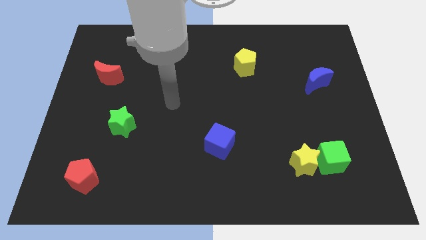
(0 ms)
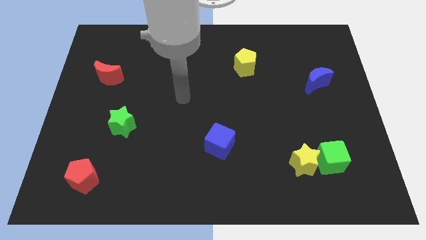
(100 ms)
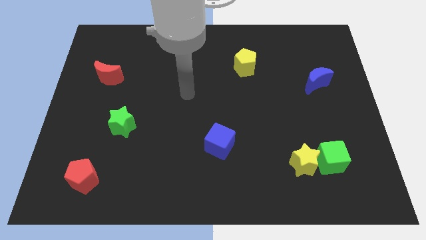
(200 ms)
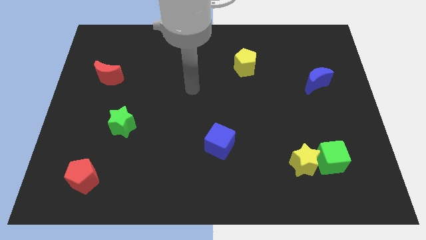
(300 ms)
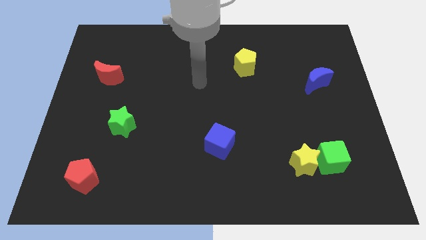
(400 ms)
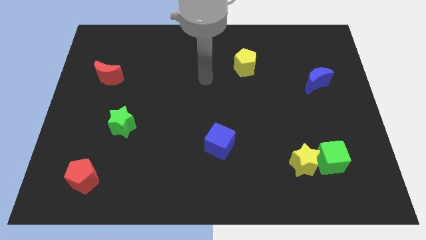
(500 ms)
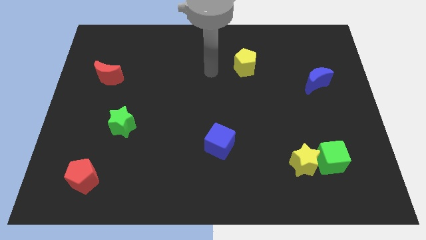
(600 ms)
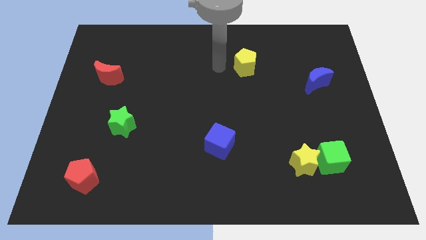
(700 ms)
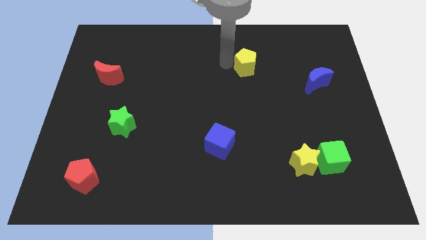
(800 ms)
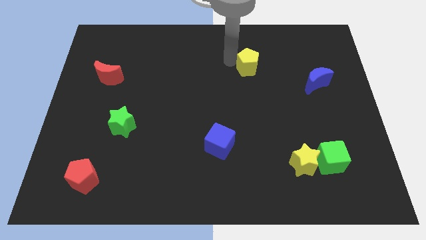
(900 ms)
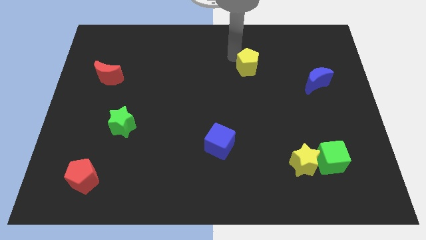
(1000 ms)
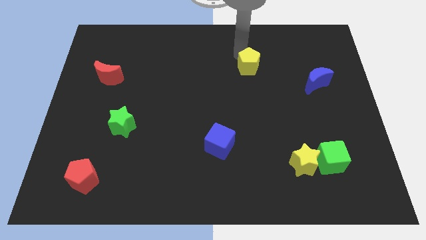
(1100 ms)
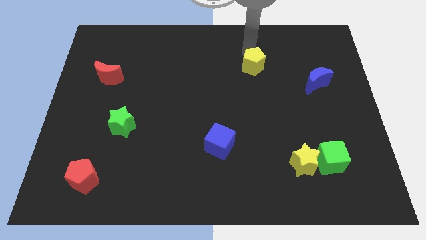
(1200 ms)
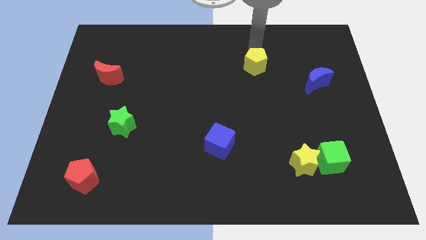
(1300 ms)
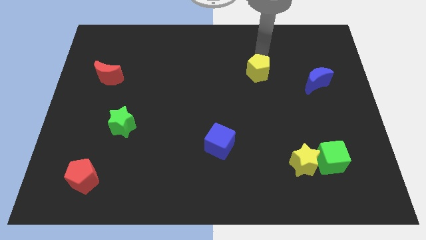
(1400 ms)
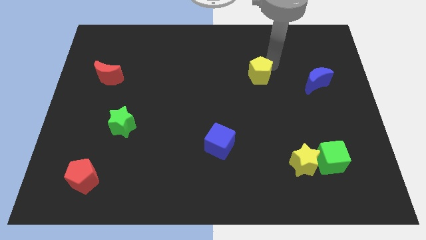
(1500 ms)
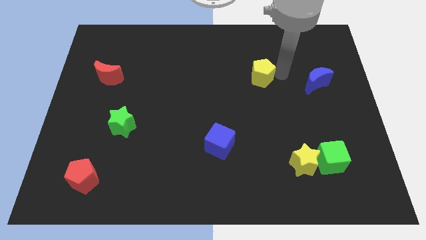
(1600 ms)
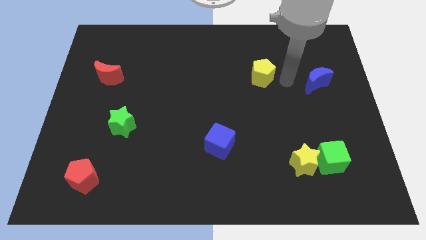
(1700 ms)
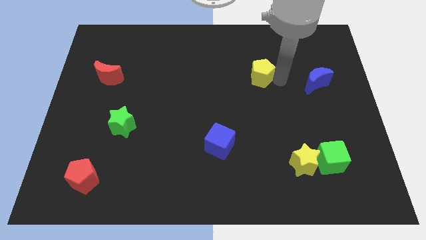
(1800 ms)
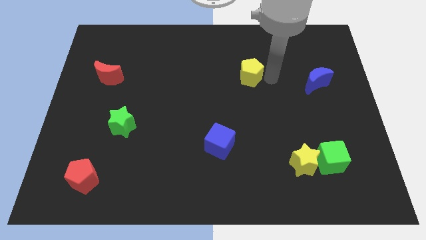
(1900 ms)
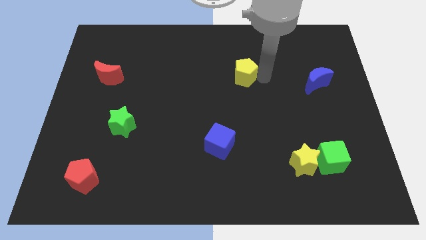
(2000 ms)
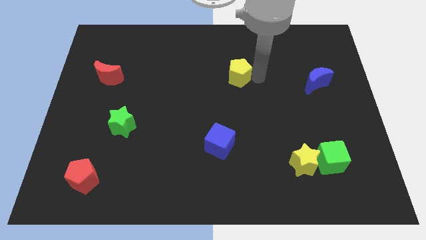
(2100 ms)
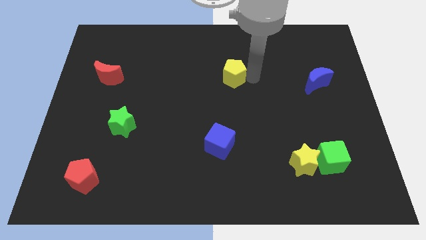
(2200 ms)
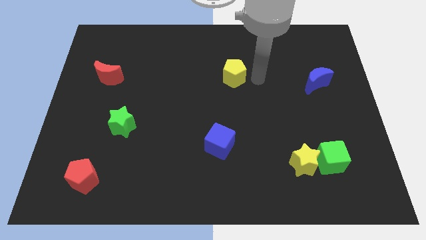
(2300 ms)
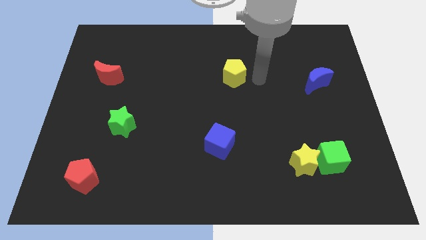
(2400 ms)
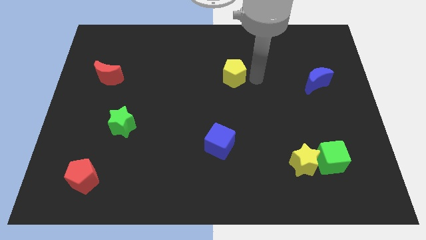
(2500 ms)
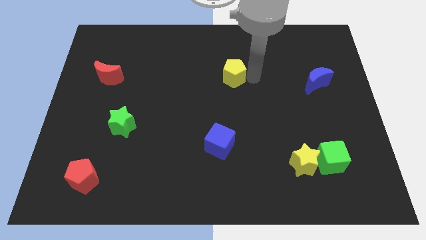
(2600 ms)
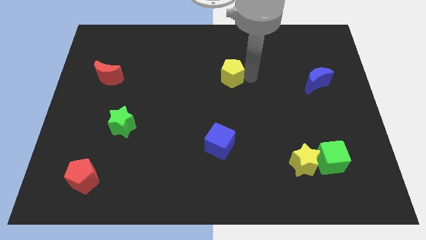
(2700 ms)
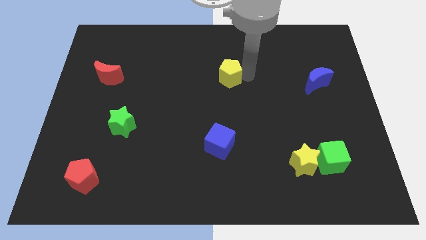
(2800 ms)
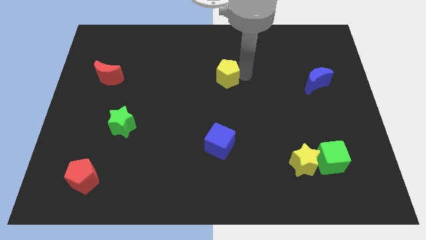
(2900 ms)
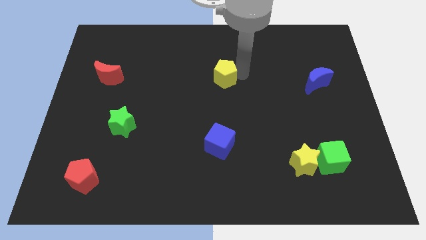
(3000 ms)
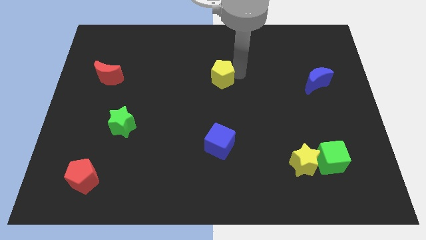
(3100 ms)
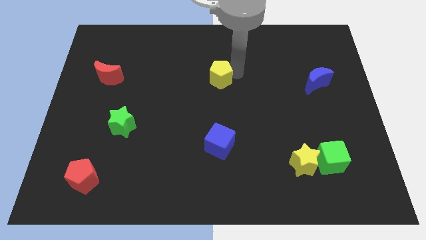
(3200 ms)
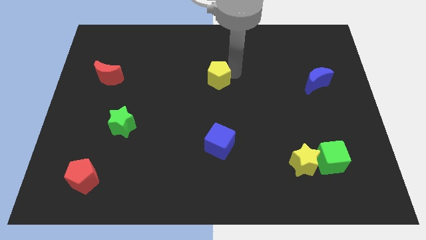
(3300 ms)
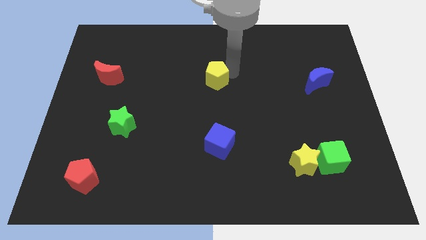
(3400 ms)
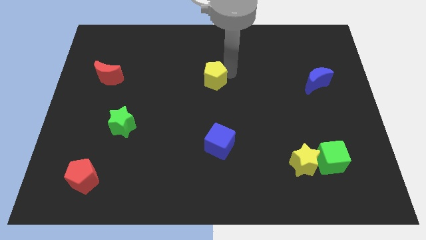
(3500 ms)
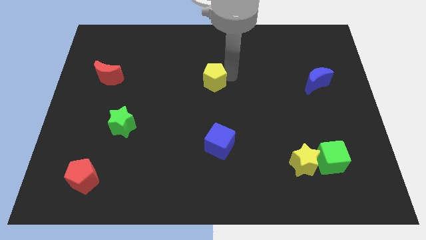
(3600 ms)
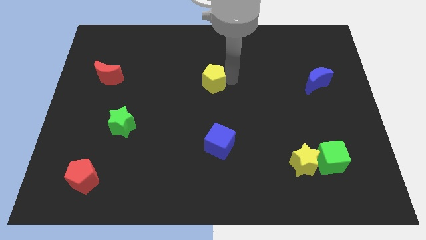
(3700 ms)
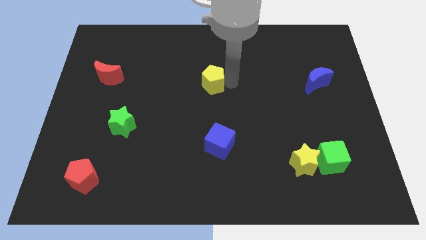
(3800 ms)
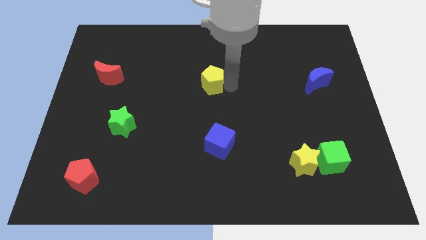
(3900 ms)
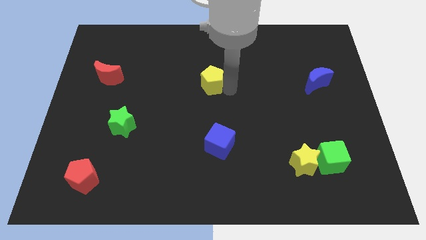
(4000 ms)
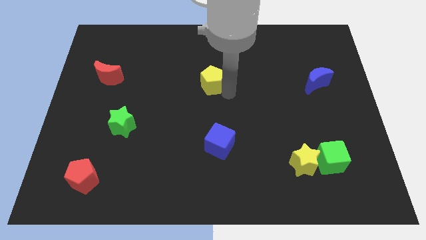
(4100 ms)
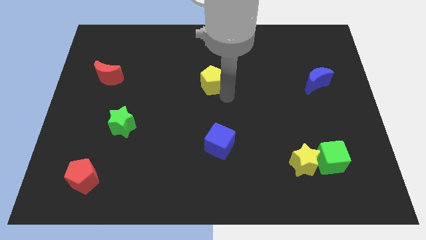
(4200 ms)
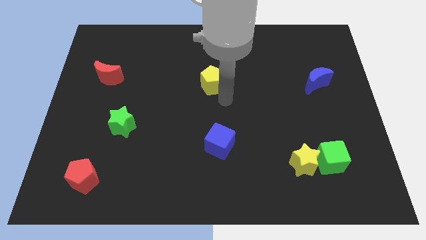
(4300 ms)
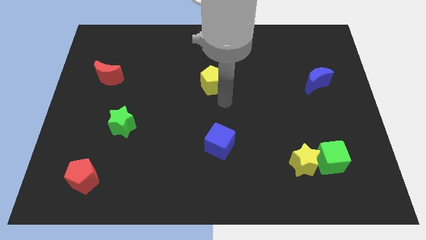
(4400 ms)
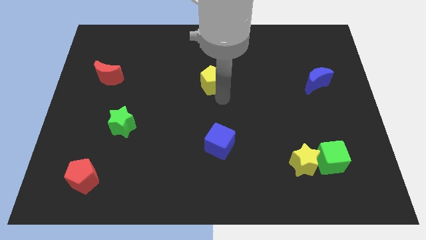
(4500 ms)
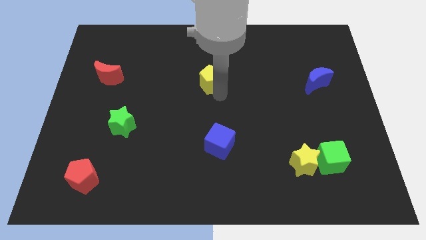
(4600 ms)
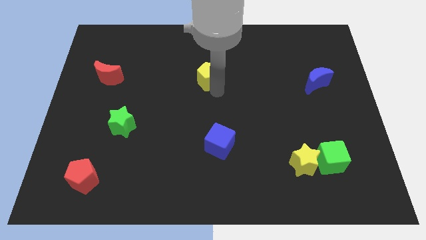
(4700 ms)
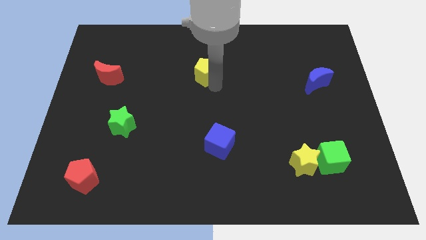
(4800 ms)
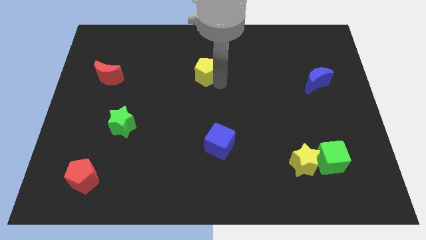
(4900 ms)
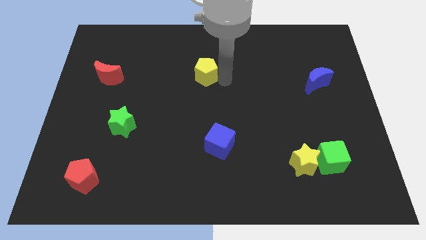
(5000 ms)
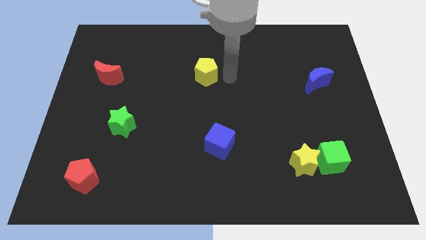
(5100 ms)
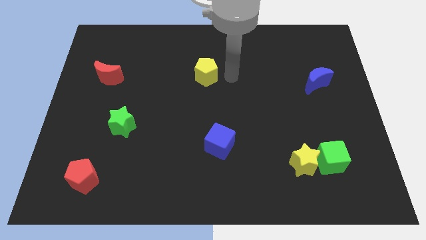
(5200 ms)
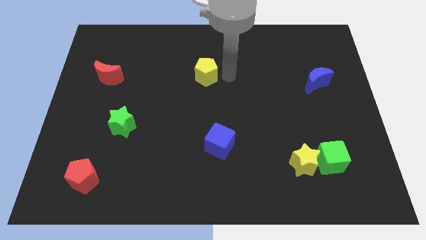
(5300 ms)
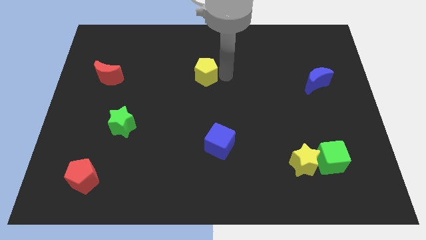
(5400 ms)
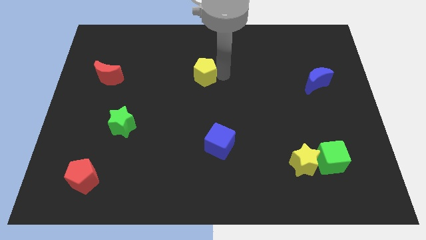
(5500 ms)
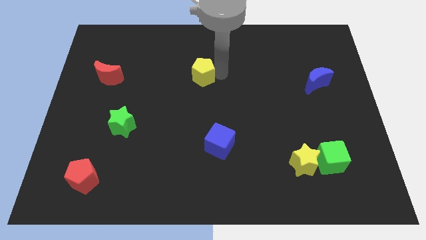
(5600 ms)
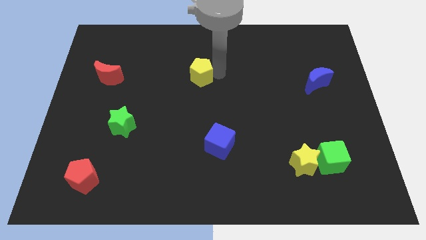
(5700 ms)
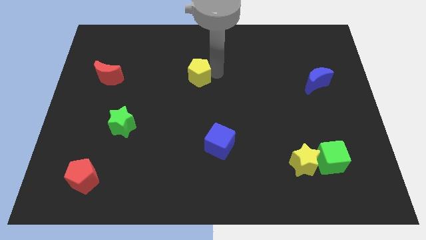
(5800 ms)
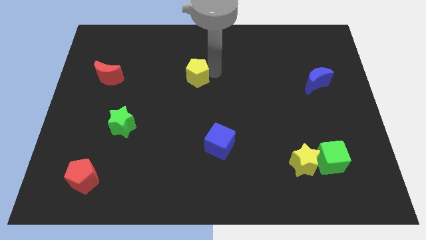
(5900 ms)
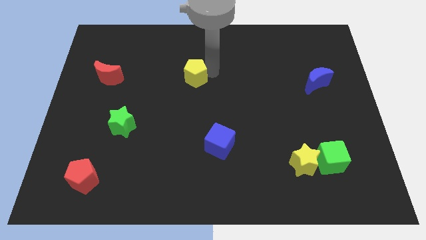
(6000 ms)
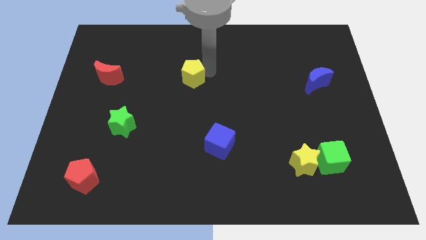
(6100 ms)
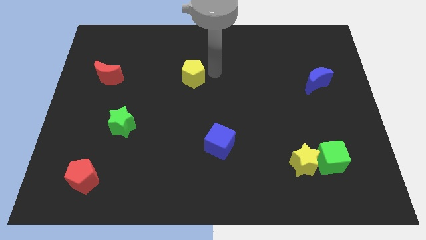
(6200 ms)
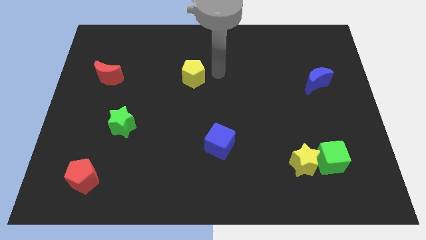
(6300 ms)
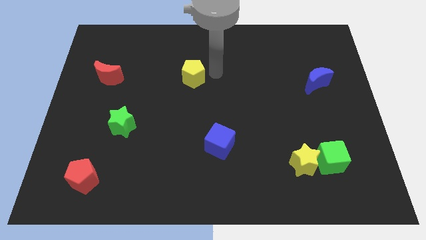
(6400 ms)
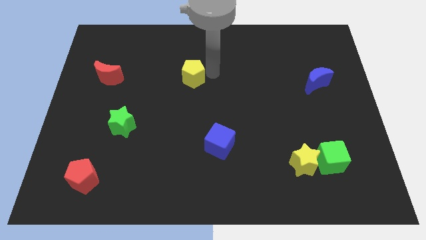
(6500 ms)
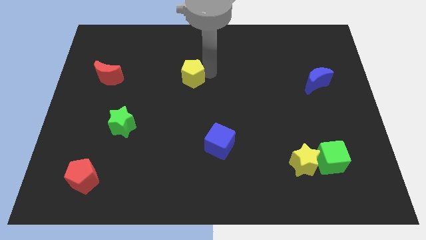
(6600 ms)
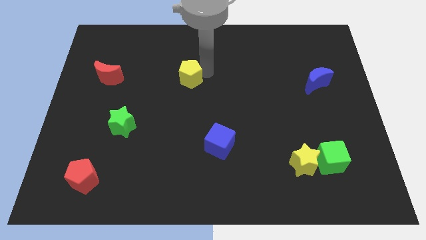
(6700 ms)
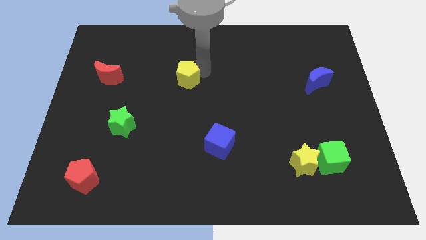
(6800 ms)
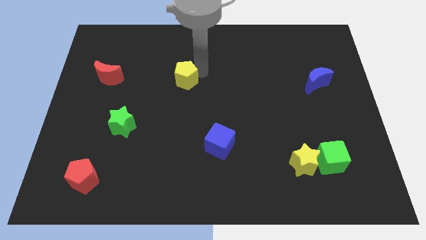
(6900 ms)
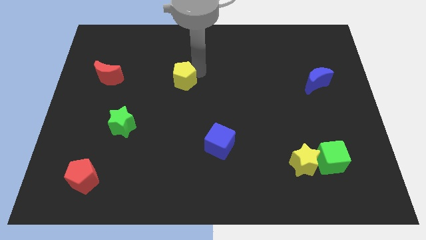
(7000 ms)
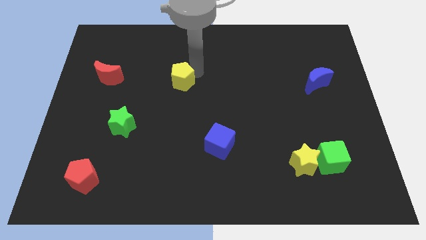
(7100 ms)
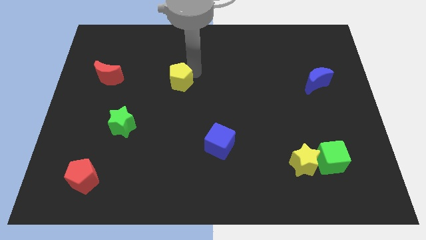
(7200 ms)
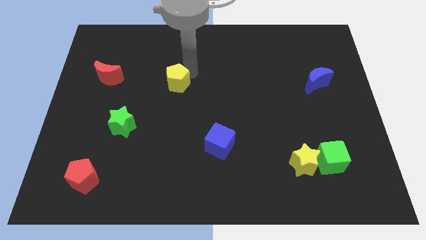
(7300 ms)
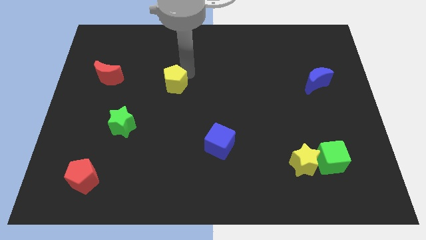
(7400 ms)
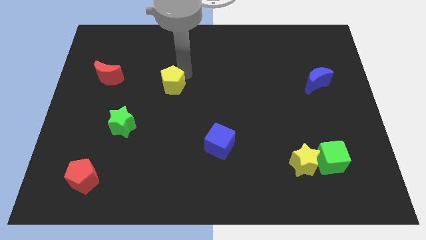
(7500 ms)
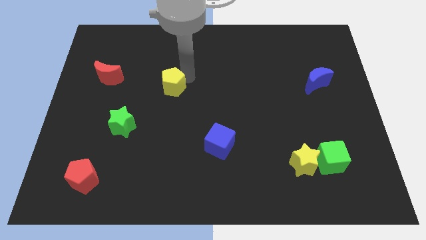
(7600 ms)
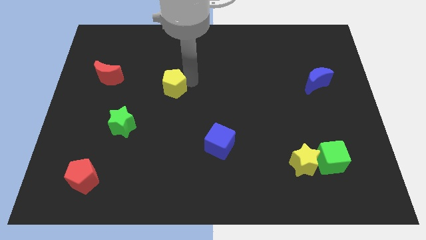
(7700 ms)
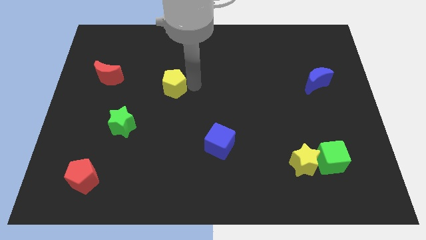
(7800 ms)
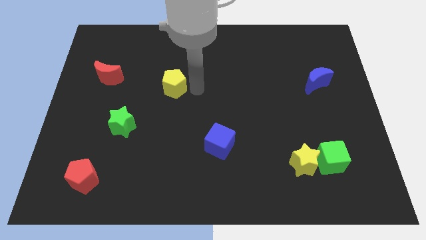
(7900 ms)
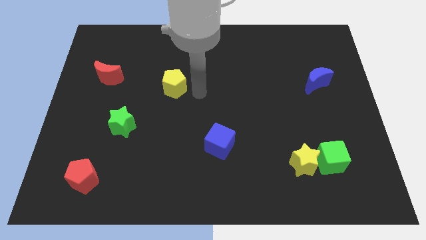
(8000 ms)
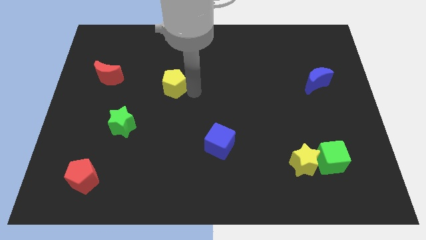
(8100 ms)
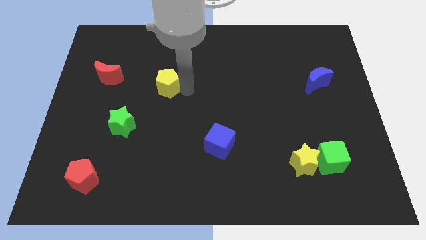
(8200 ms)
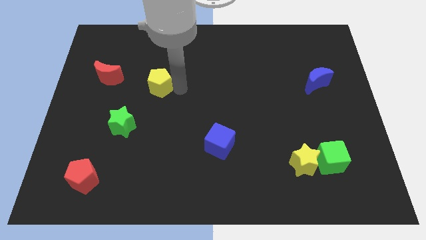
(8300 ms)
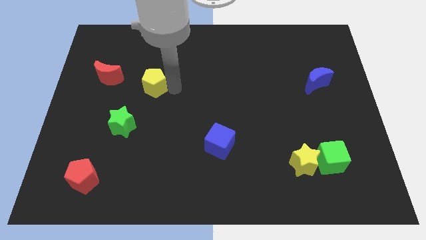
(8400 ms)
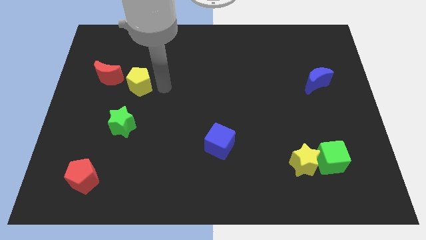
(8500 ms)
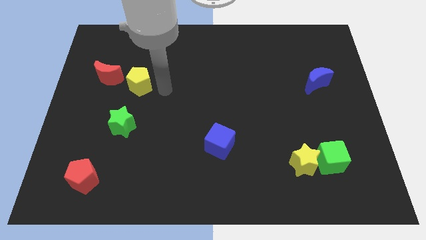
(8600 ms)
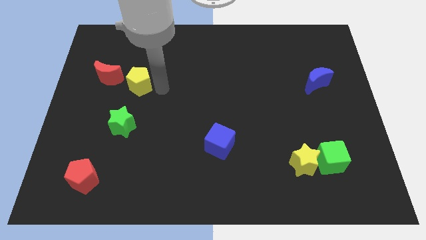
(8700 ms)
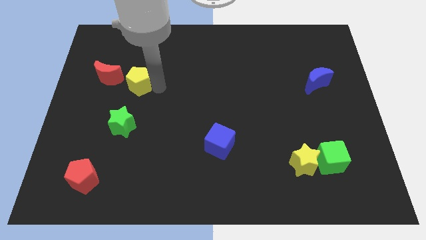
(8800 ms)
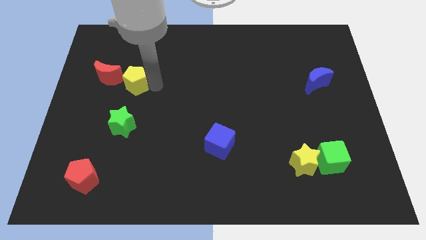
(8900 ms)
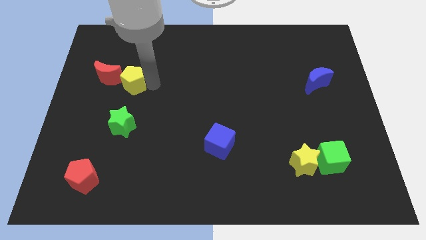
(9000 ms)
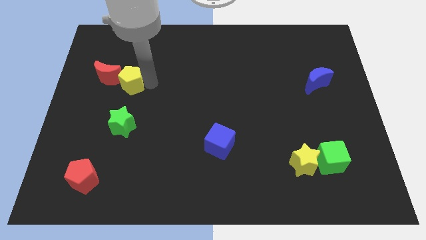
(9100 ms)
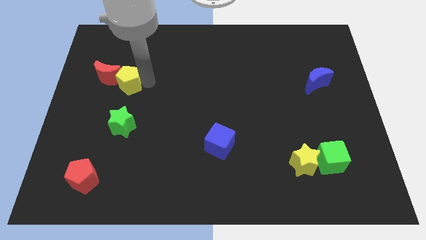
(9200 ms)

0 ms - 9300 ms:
put the yellow pentagon towards the red moon
